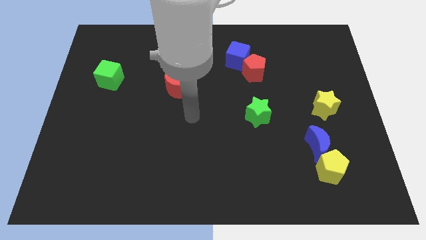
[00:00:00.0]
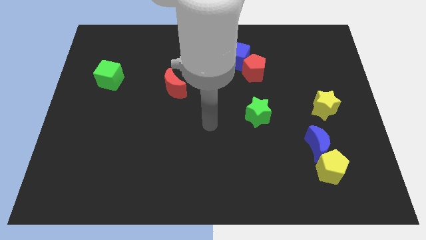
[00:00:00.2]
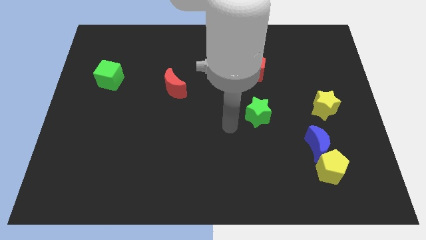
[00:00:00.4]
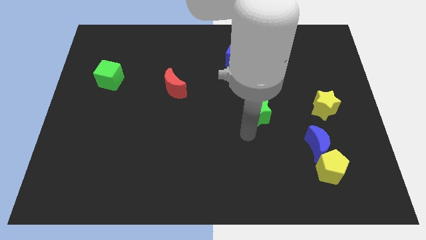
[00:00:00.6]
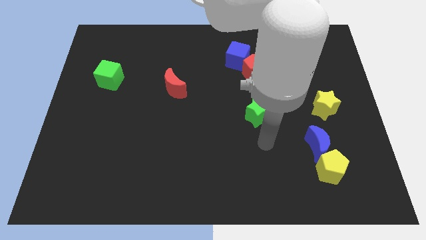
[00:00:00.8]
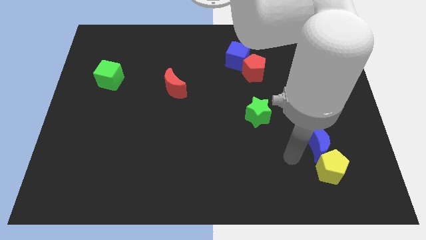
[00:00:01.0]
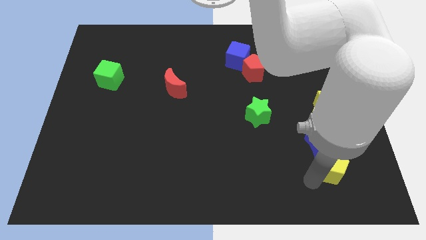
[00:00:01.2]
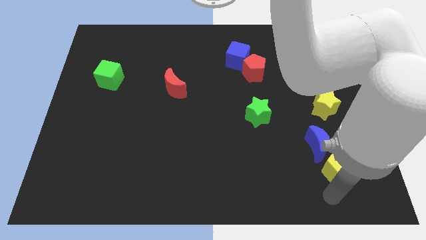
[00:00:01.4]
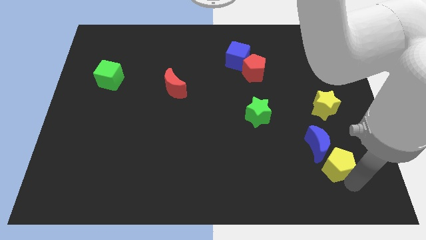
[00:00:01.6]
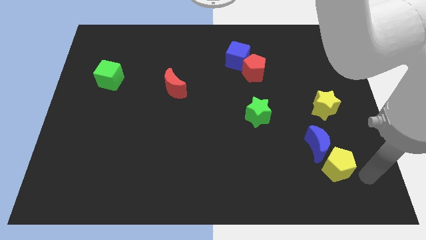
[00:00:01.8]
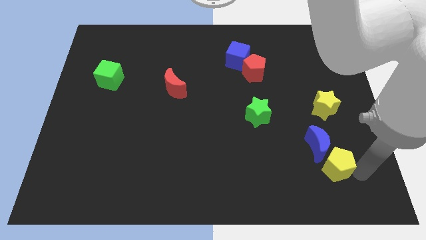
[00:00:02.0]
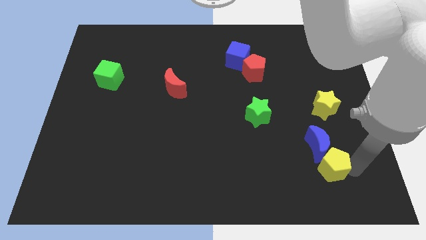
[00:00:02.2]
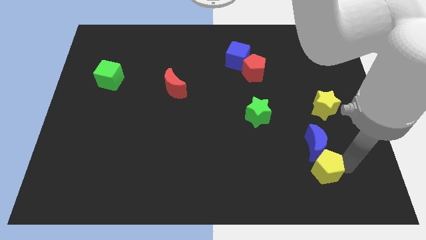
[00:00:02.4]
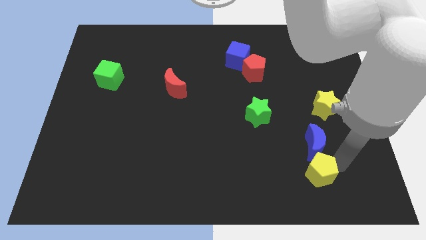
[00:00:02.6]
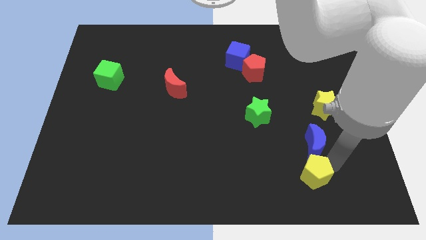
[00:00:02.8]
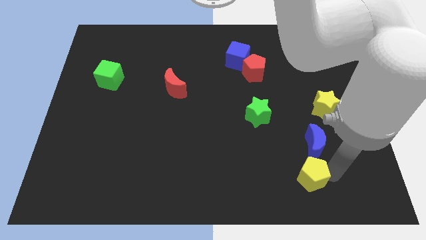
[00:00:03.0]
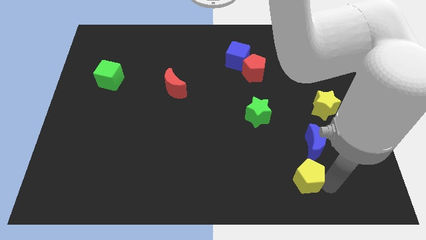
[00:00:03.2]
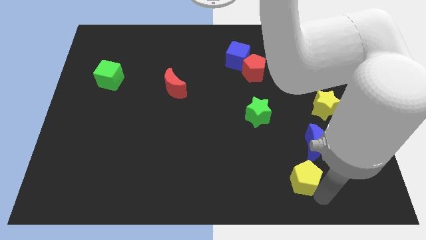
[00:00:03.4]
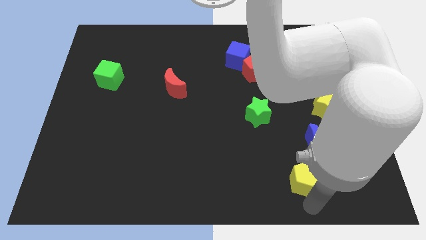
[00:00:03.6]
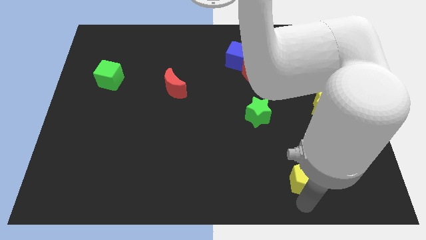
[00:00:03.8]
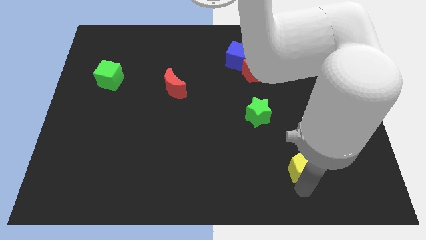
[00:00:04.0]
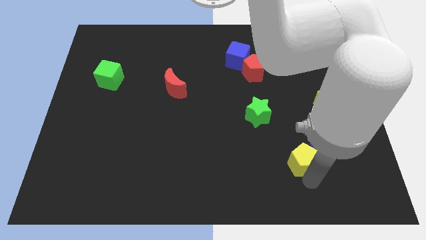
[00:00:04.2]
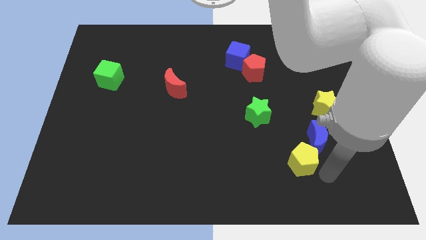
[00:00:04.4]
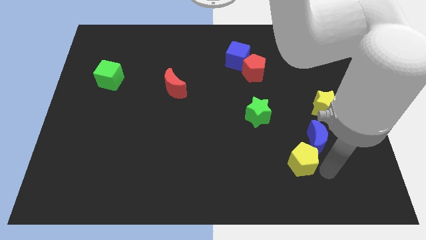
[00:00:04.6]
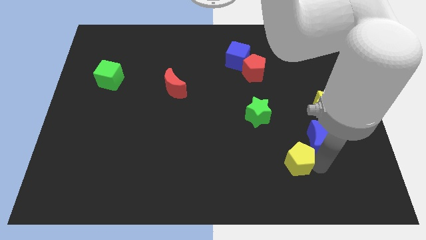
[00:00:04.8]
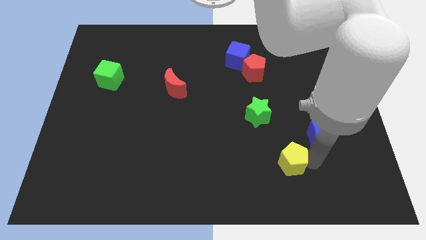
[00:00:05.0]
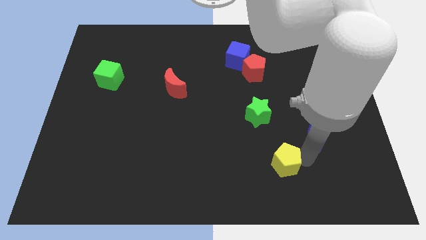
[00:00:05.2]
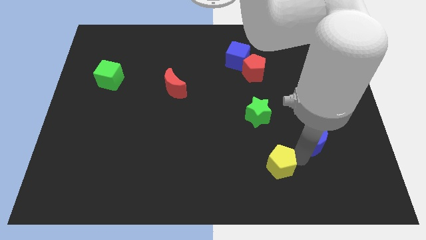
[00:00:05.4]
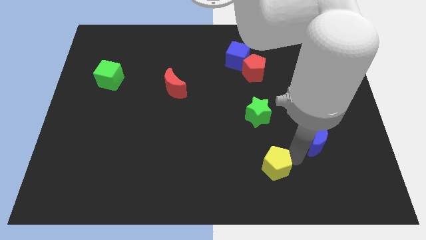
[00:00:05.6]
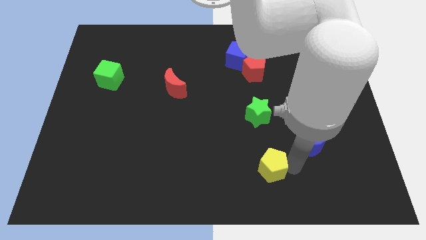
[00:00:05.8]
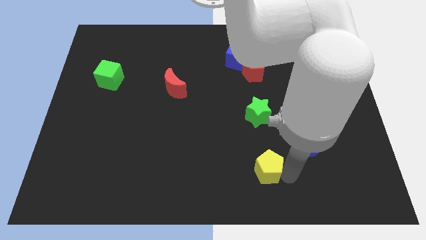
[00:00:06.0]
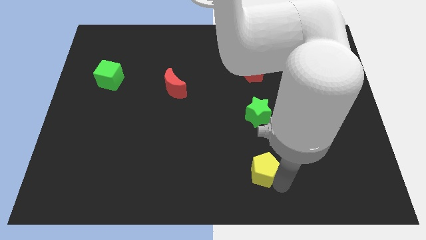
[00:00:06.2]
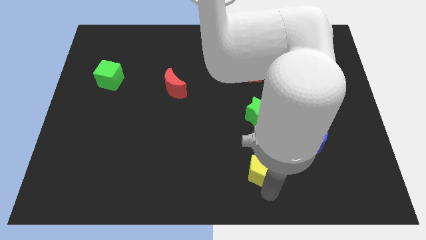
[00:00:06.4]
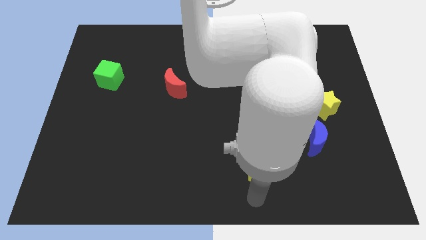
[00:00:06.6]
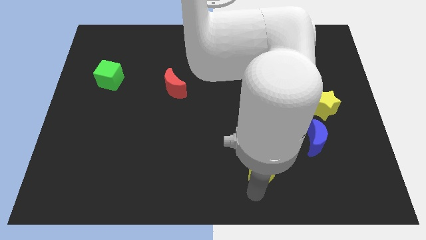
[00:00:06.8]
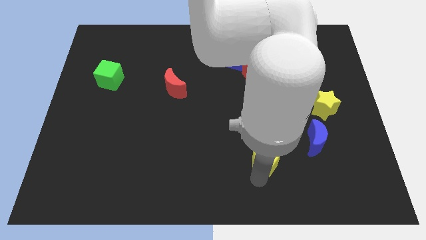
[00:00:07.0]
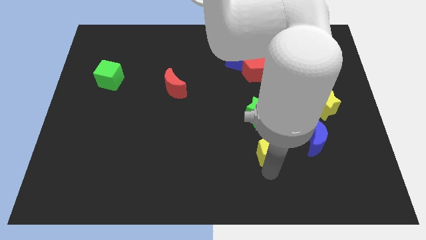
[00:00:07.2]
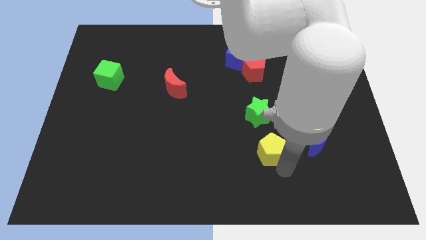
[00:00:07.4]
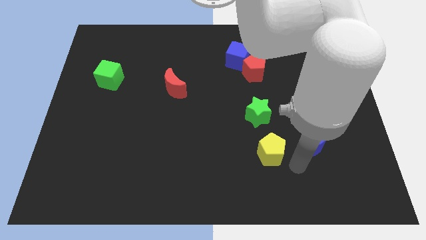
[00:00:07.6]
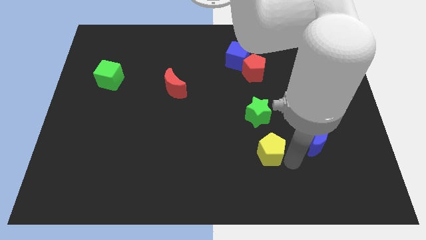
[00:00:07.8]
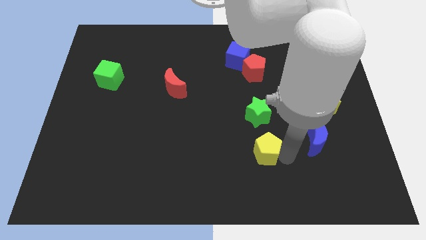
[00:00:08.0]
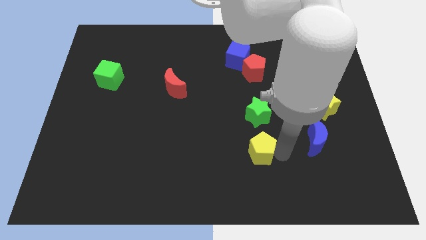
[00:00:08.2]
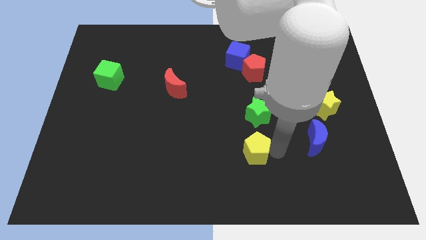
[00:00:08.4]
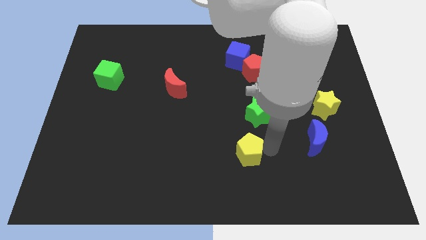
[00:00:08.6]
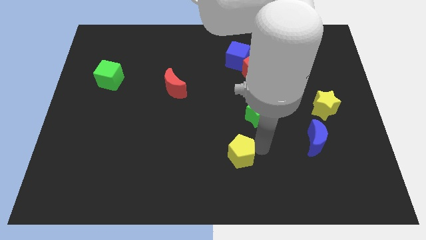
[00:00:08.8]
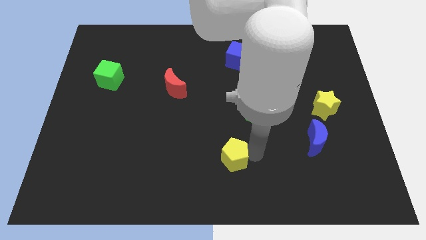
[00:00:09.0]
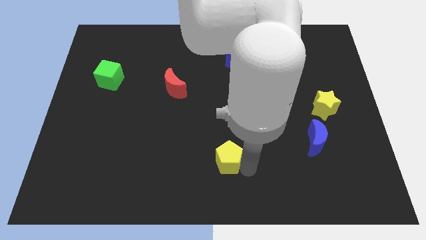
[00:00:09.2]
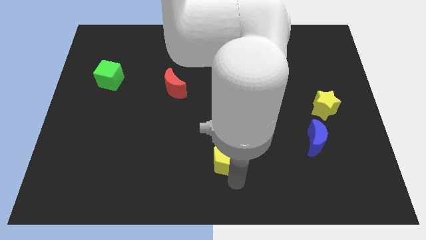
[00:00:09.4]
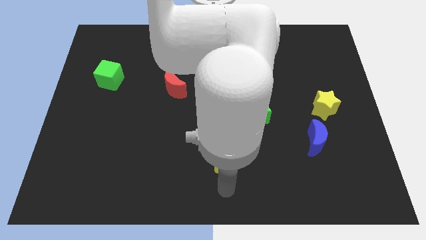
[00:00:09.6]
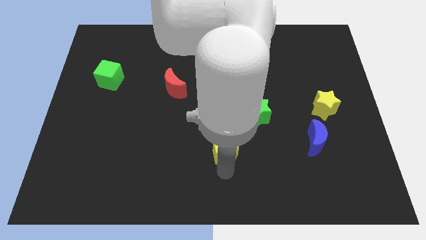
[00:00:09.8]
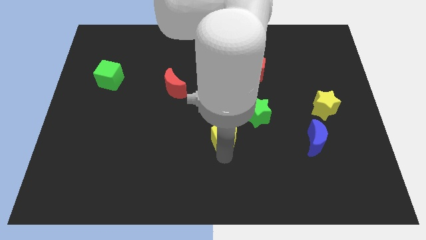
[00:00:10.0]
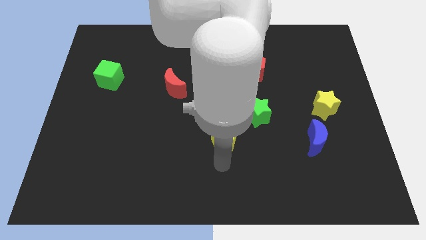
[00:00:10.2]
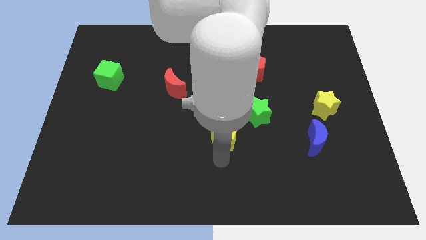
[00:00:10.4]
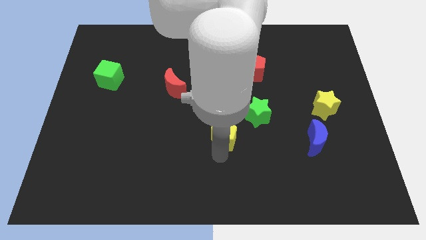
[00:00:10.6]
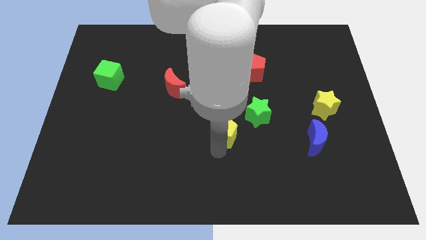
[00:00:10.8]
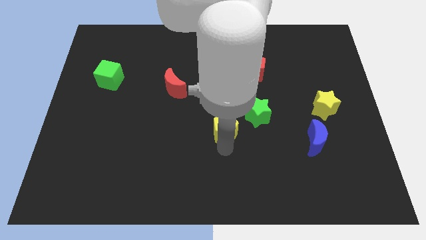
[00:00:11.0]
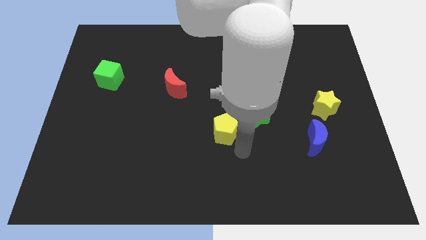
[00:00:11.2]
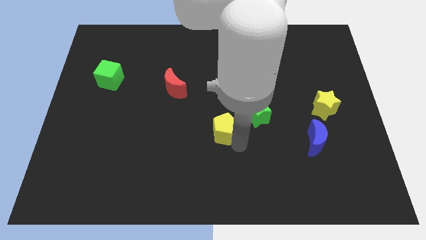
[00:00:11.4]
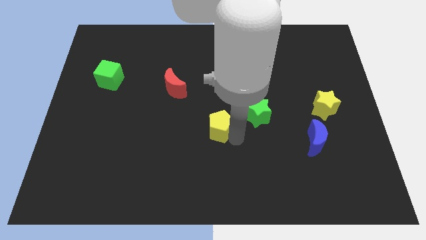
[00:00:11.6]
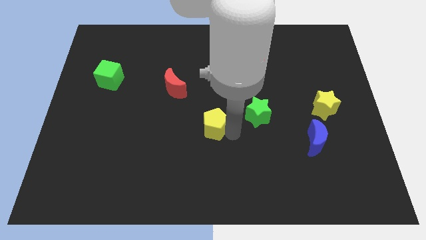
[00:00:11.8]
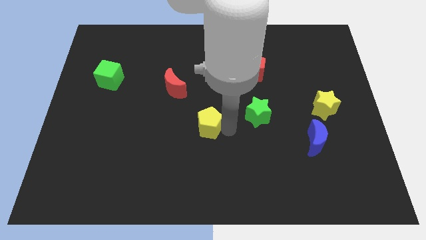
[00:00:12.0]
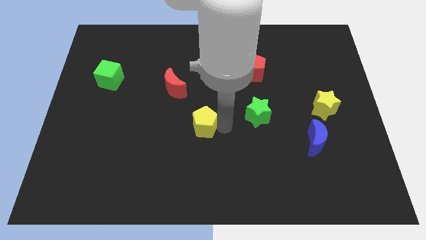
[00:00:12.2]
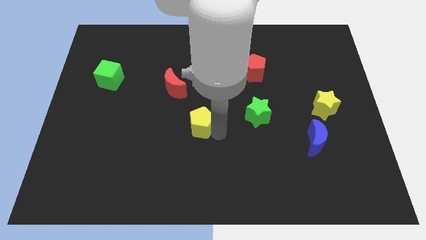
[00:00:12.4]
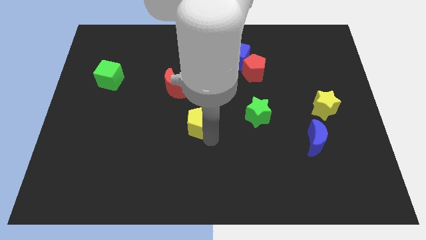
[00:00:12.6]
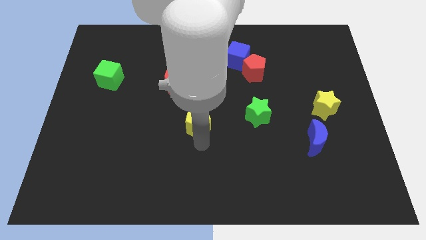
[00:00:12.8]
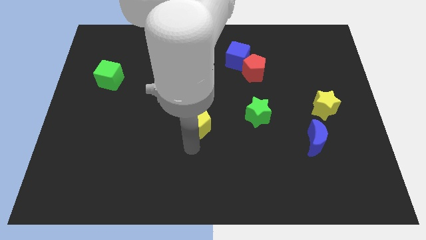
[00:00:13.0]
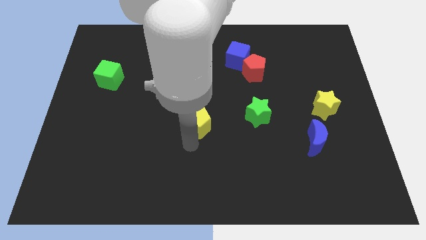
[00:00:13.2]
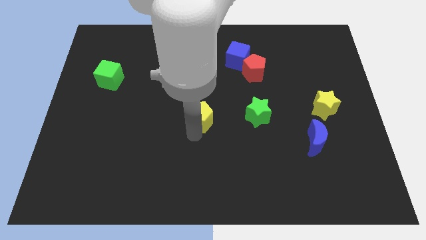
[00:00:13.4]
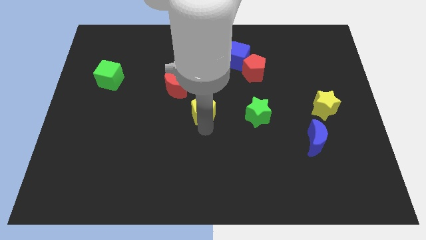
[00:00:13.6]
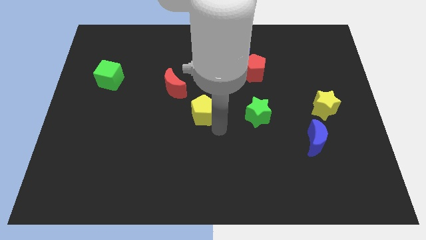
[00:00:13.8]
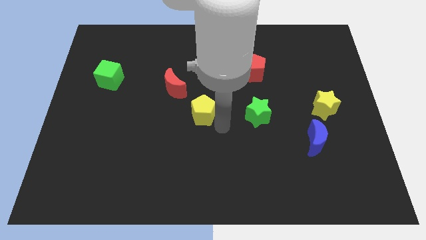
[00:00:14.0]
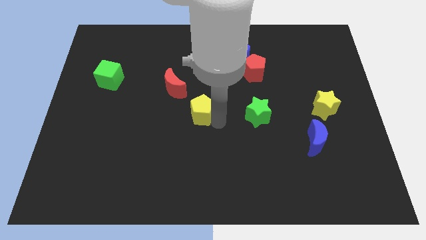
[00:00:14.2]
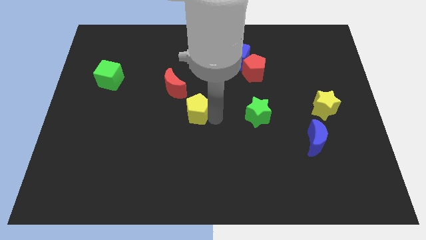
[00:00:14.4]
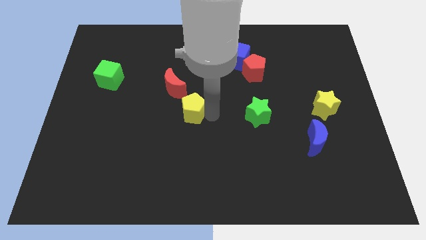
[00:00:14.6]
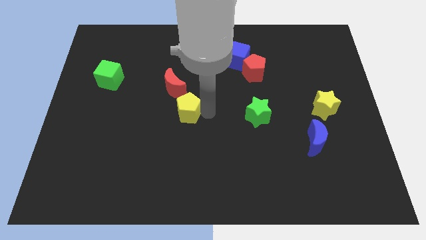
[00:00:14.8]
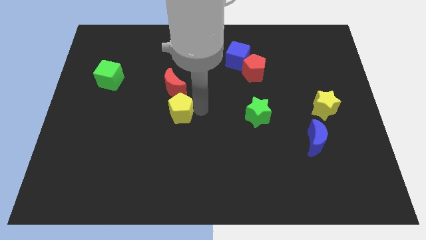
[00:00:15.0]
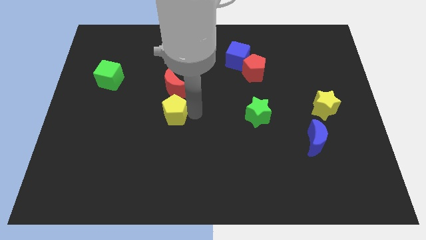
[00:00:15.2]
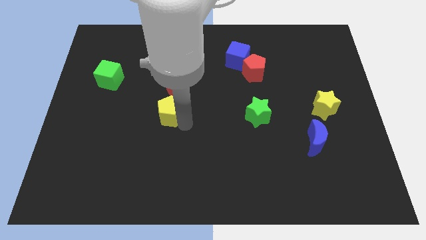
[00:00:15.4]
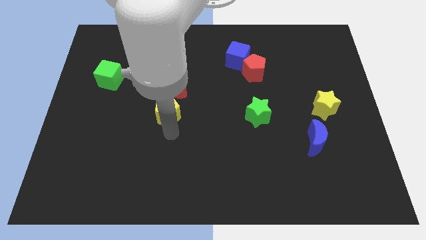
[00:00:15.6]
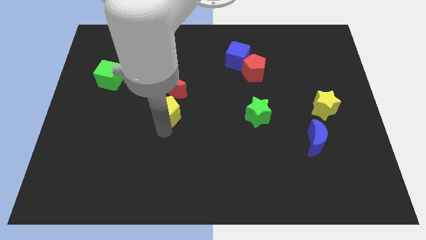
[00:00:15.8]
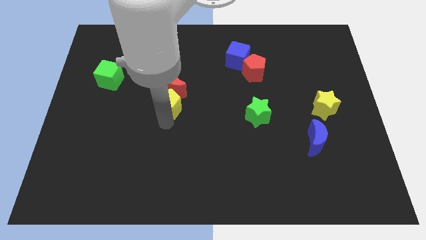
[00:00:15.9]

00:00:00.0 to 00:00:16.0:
push the yellow pentagon to the red moon

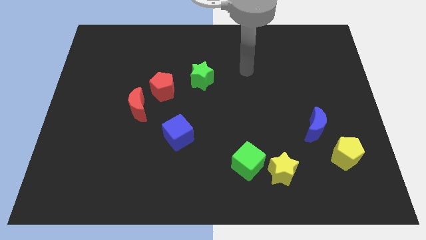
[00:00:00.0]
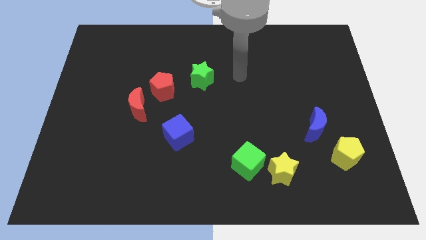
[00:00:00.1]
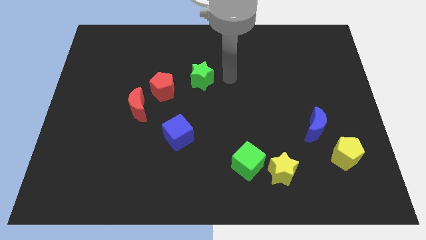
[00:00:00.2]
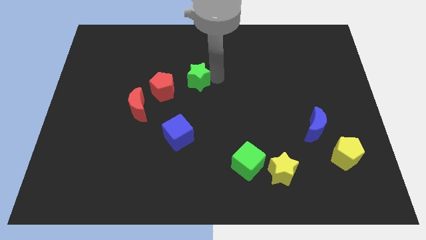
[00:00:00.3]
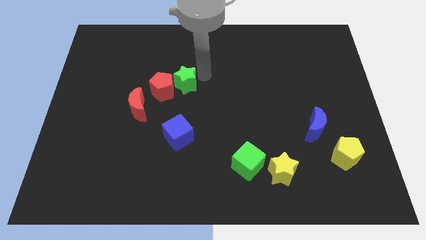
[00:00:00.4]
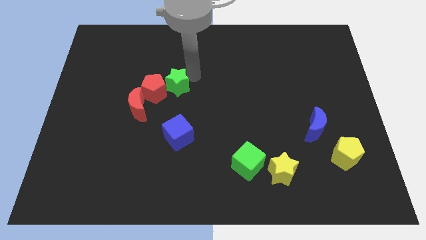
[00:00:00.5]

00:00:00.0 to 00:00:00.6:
put the red pentagon next to the red moon
